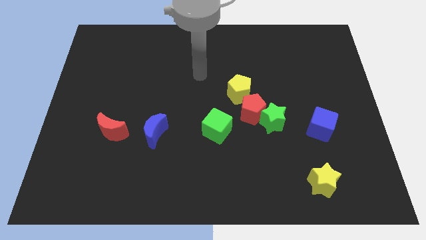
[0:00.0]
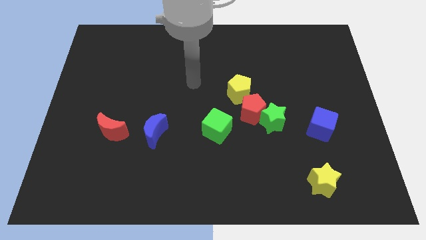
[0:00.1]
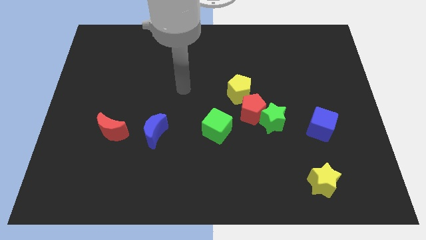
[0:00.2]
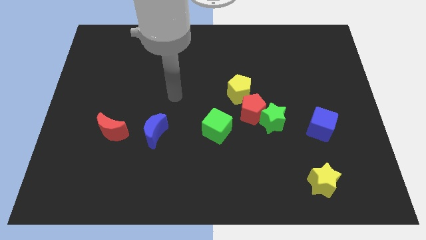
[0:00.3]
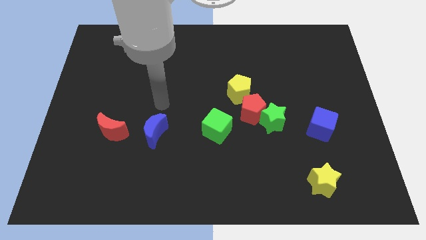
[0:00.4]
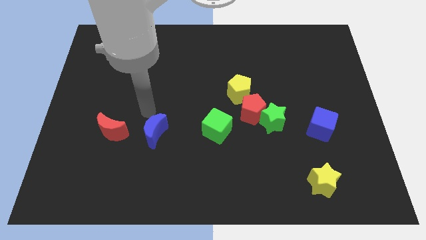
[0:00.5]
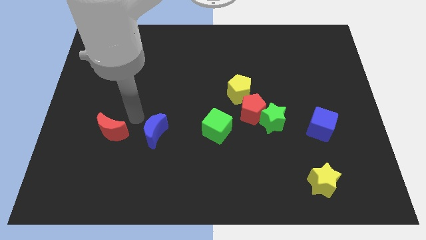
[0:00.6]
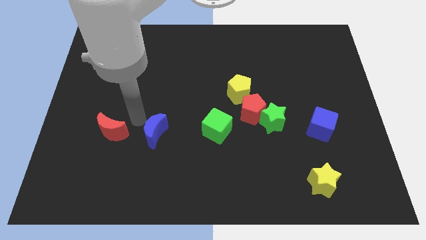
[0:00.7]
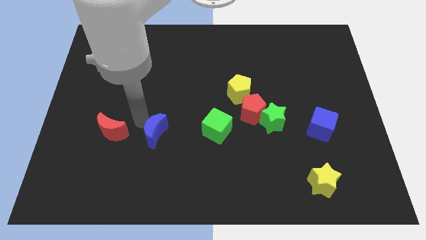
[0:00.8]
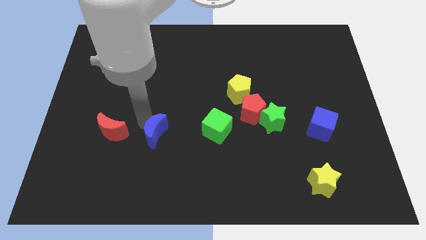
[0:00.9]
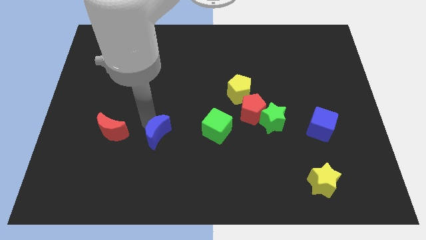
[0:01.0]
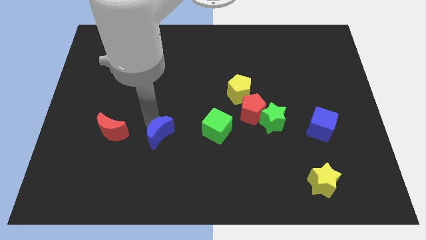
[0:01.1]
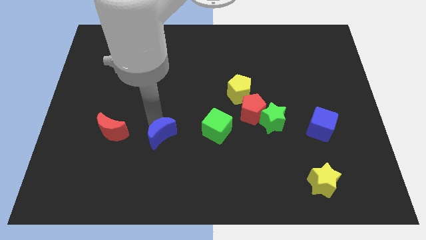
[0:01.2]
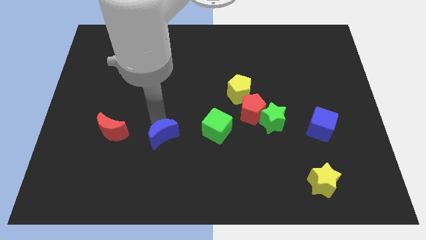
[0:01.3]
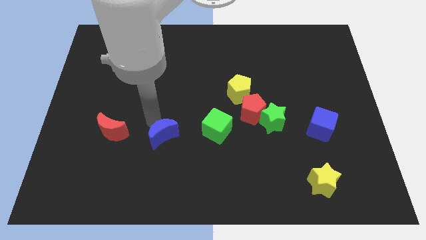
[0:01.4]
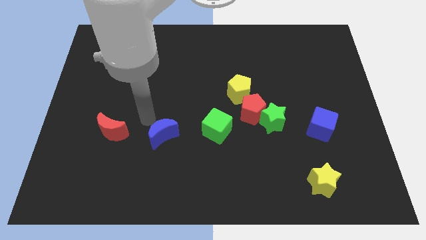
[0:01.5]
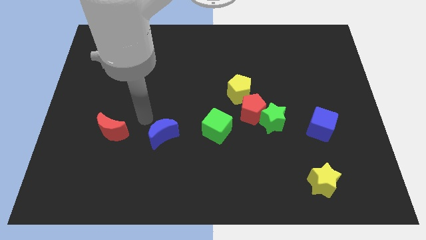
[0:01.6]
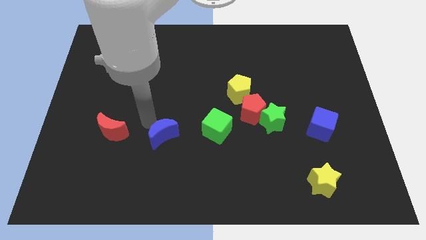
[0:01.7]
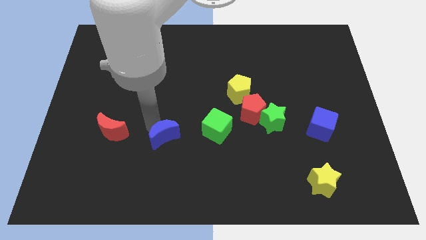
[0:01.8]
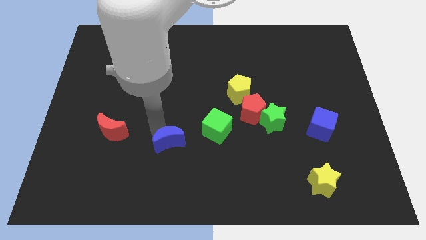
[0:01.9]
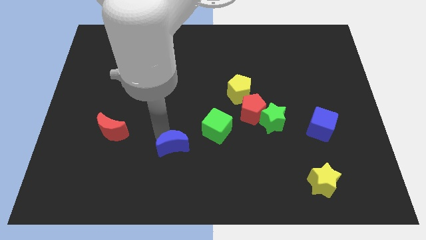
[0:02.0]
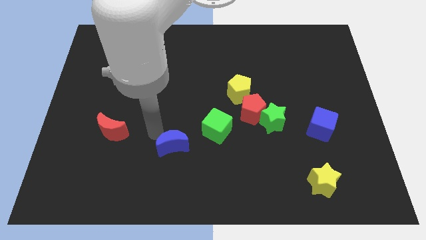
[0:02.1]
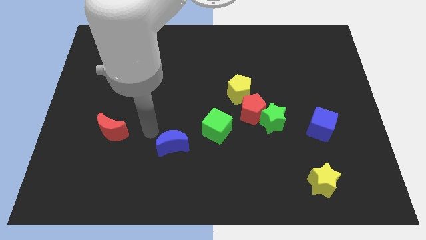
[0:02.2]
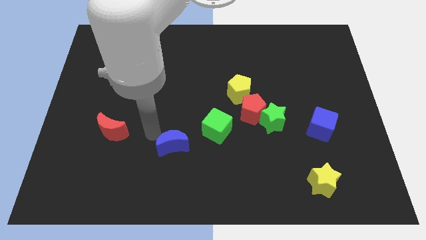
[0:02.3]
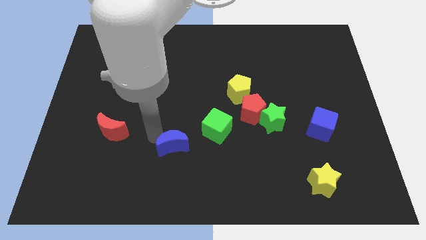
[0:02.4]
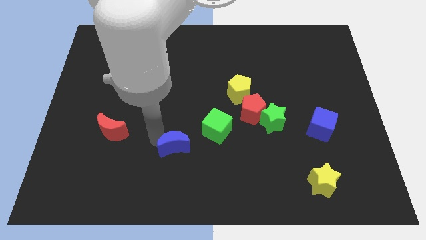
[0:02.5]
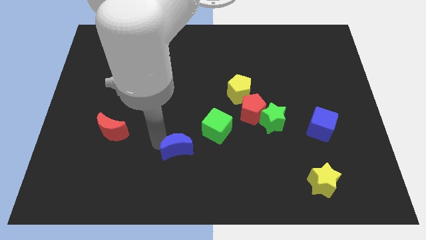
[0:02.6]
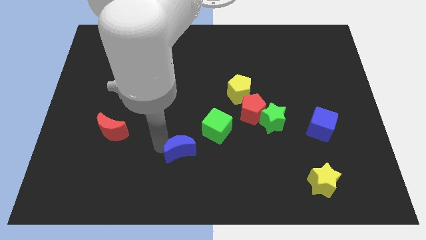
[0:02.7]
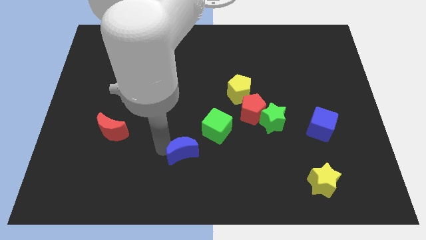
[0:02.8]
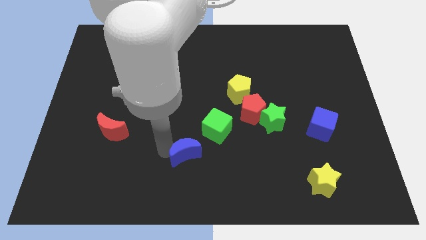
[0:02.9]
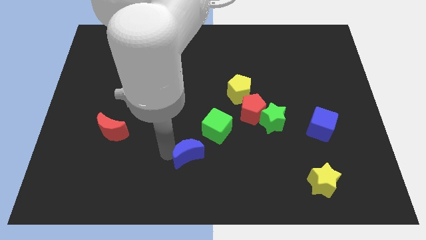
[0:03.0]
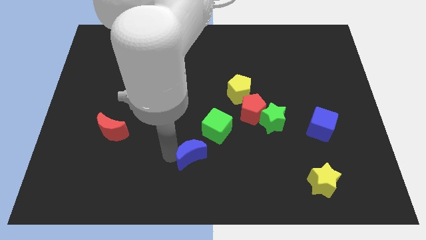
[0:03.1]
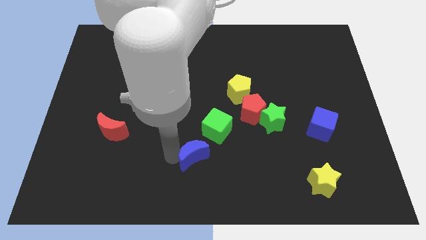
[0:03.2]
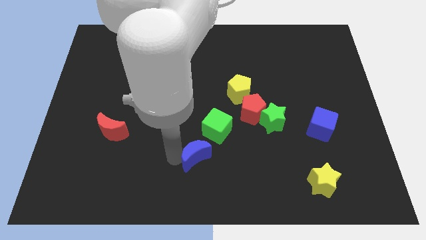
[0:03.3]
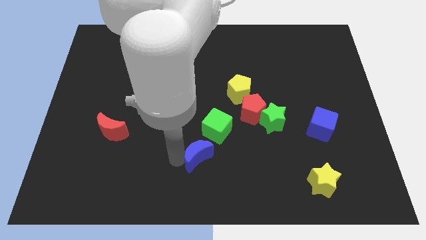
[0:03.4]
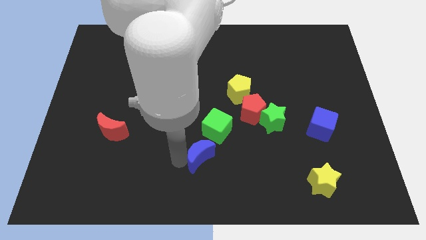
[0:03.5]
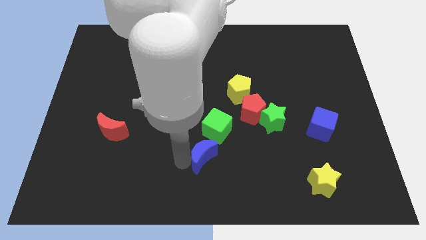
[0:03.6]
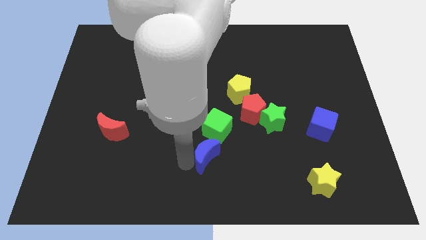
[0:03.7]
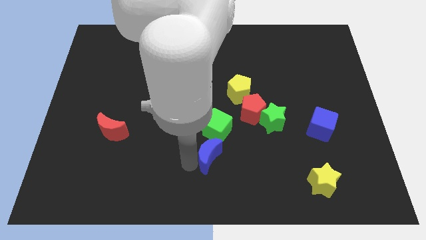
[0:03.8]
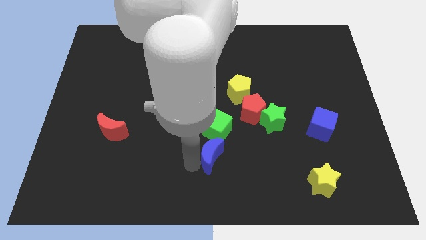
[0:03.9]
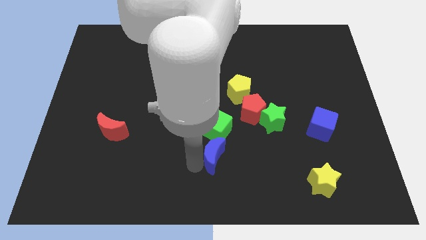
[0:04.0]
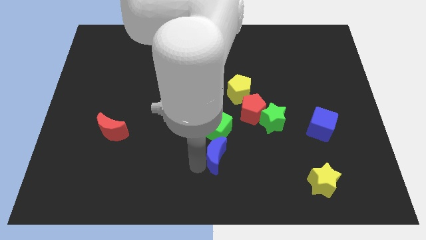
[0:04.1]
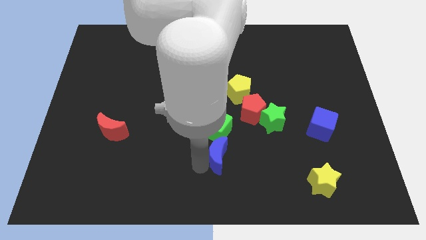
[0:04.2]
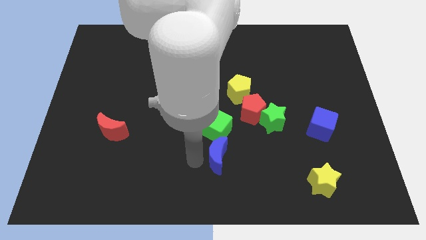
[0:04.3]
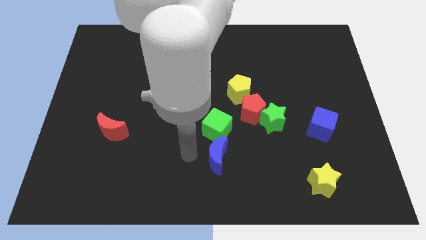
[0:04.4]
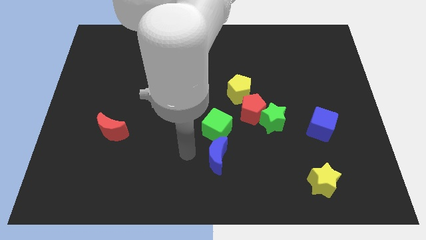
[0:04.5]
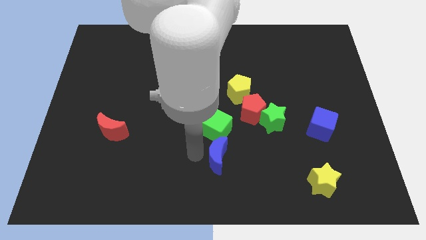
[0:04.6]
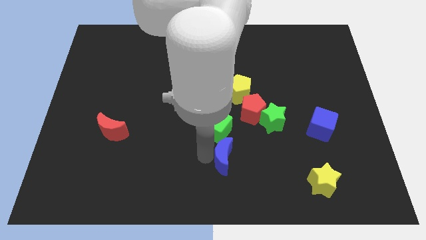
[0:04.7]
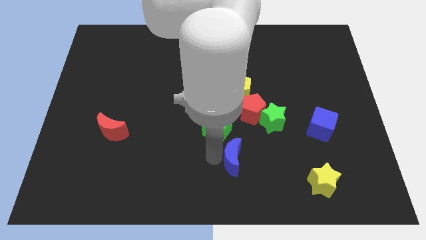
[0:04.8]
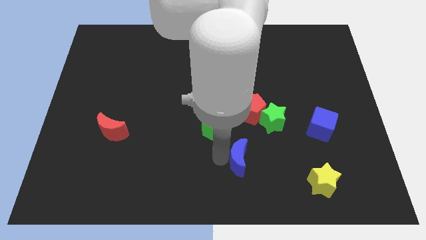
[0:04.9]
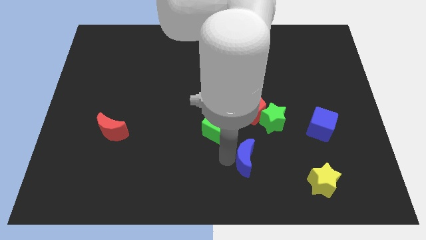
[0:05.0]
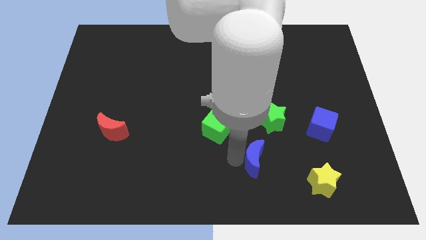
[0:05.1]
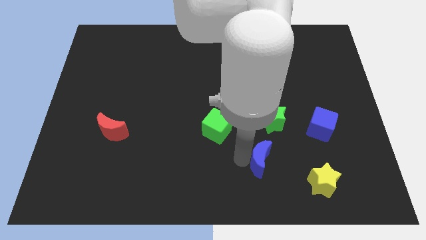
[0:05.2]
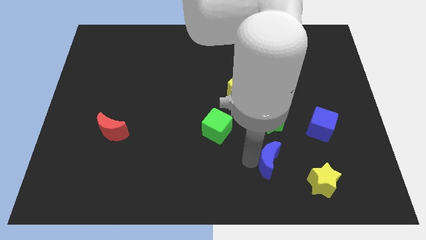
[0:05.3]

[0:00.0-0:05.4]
slide the blue moon diagonally up and to the left of the yellow star

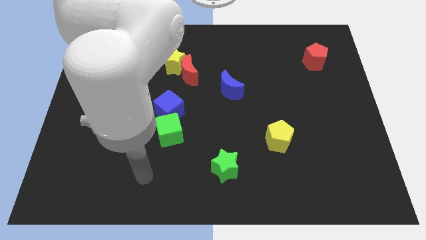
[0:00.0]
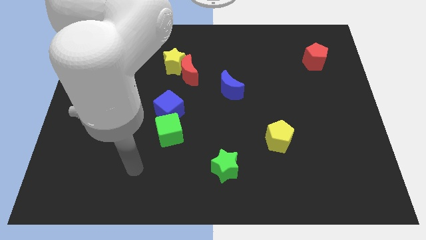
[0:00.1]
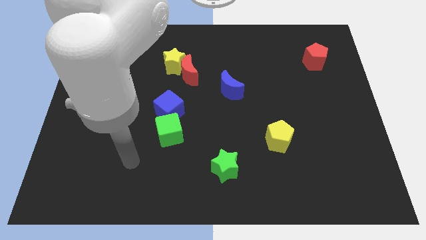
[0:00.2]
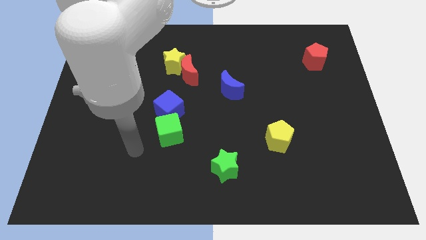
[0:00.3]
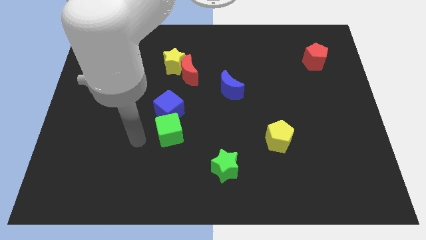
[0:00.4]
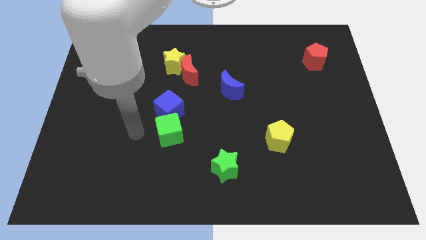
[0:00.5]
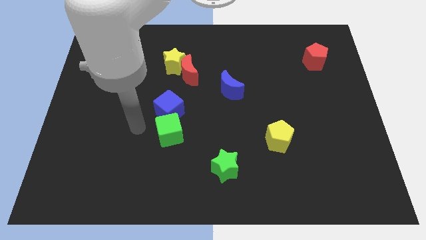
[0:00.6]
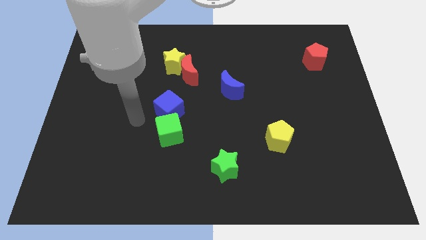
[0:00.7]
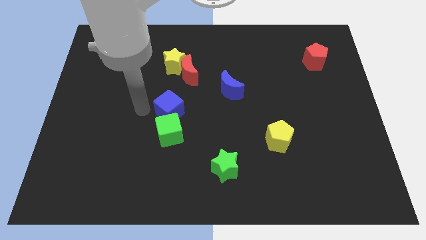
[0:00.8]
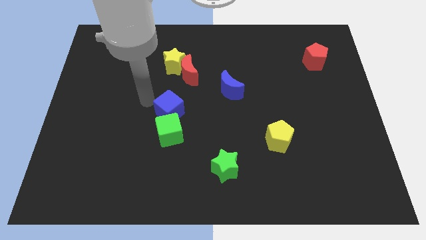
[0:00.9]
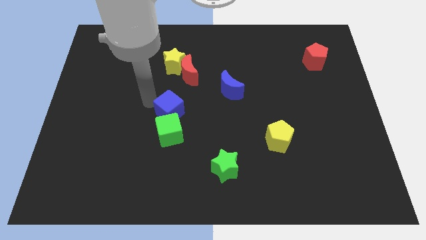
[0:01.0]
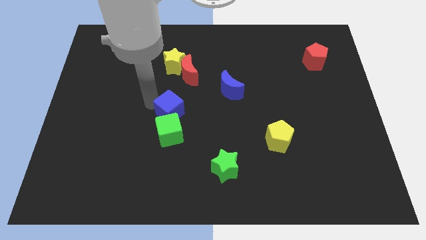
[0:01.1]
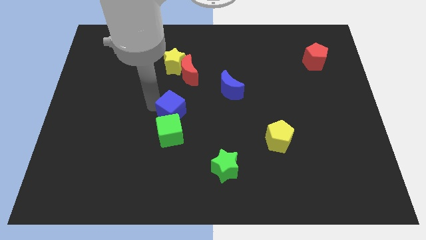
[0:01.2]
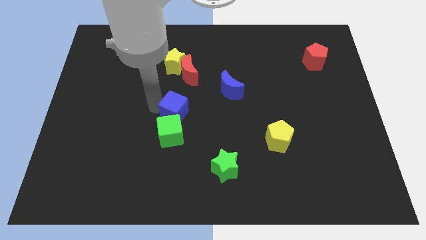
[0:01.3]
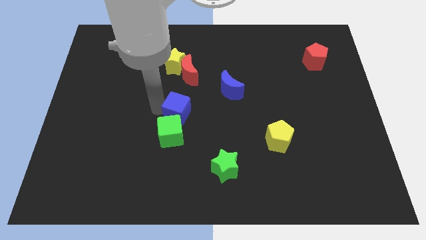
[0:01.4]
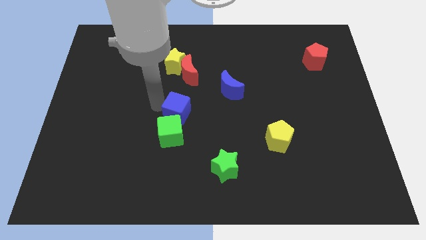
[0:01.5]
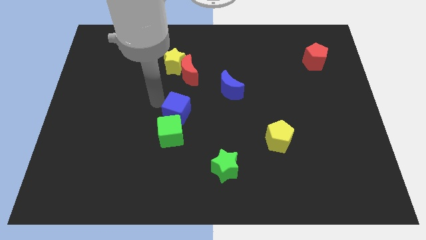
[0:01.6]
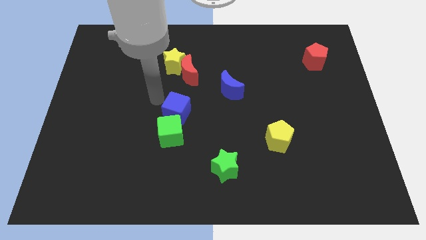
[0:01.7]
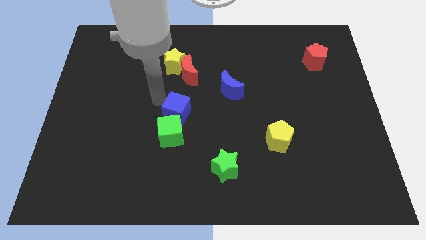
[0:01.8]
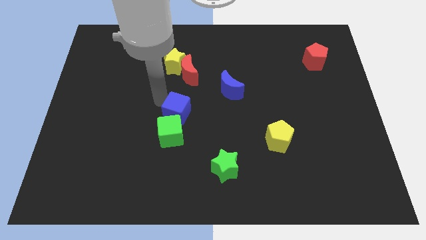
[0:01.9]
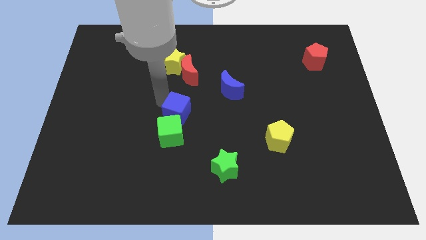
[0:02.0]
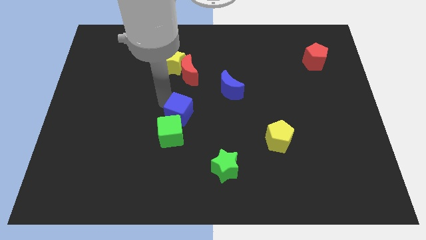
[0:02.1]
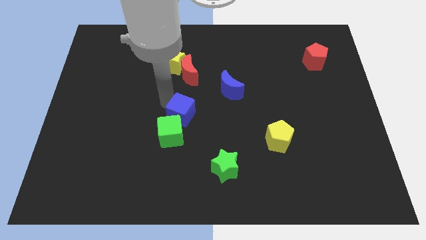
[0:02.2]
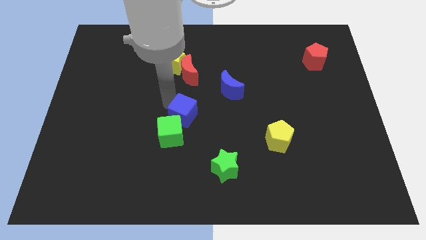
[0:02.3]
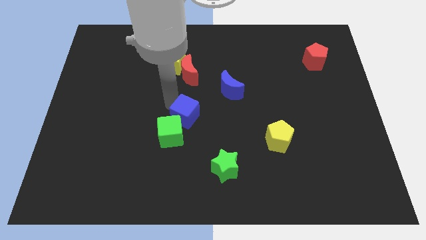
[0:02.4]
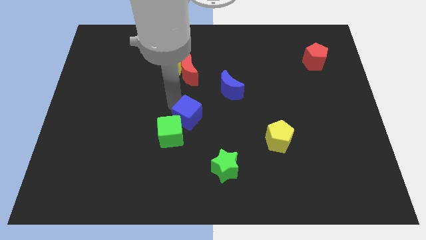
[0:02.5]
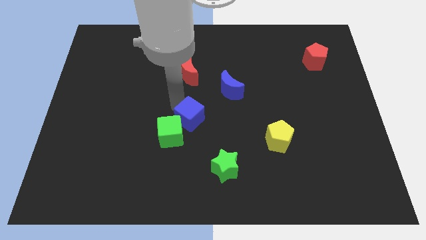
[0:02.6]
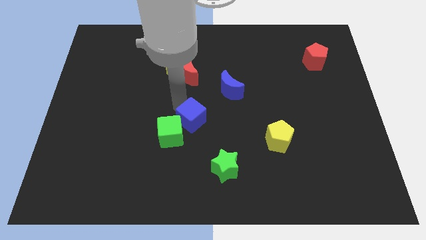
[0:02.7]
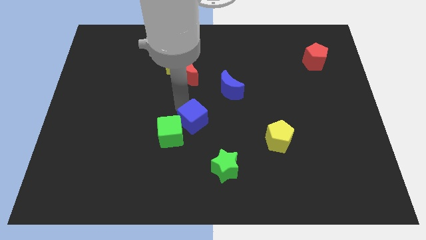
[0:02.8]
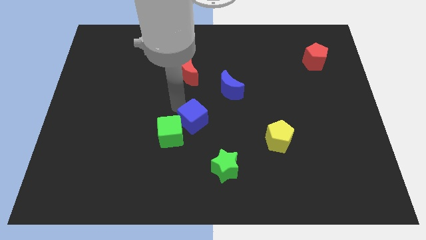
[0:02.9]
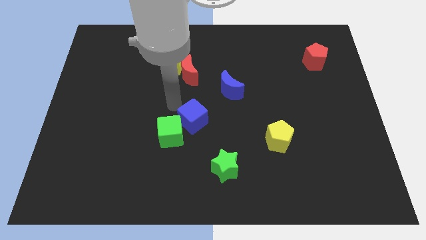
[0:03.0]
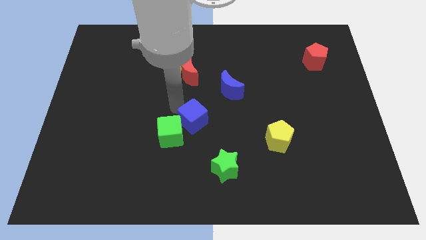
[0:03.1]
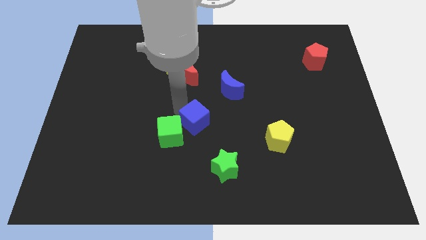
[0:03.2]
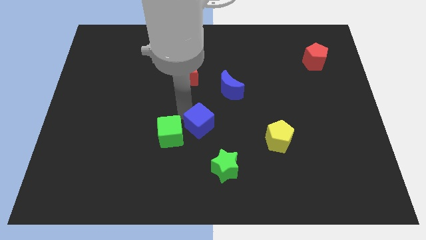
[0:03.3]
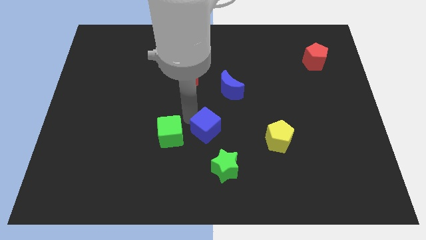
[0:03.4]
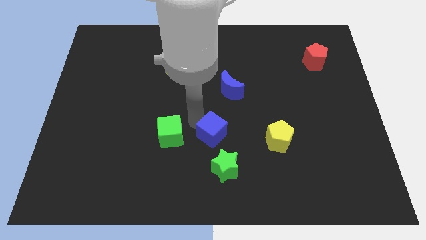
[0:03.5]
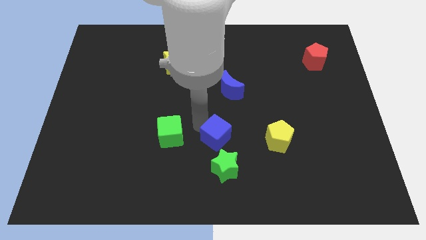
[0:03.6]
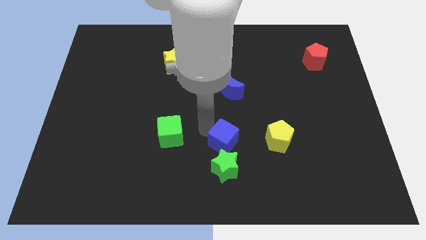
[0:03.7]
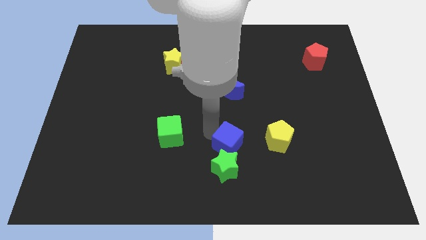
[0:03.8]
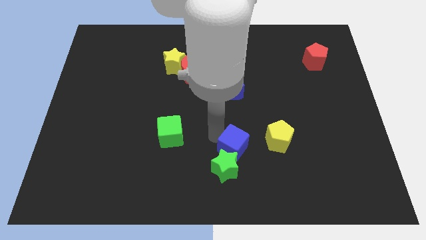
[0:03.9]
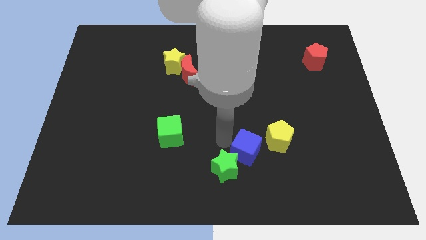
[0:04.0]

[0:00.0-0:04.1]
move the blue cube right of the green star
